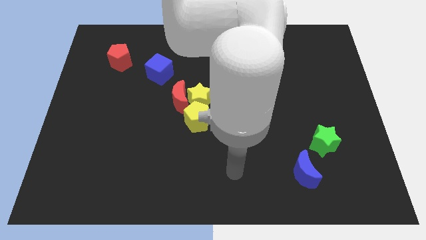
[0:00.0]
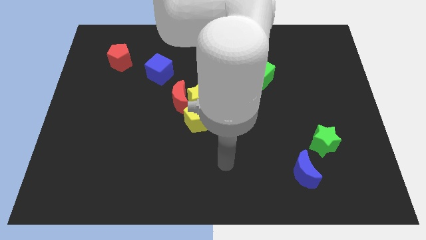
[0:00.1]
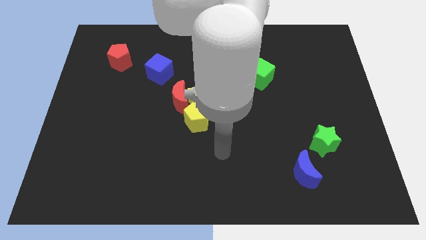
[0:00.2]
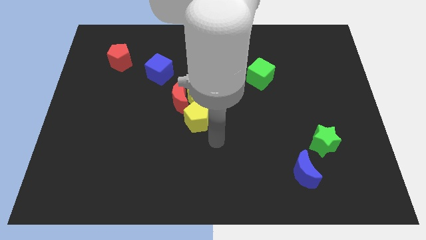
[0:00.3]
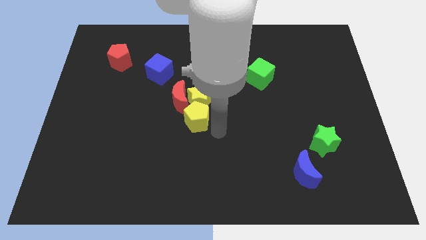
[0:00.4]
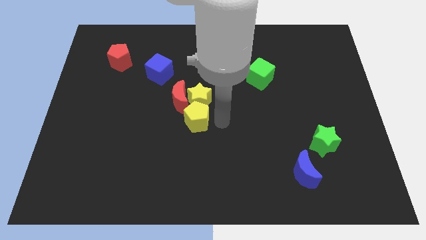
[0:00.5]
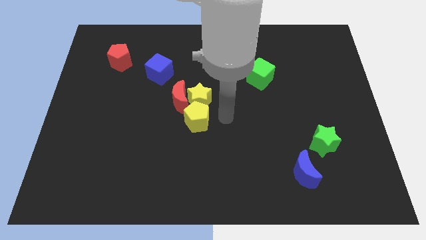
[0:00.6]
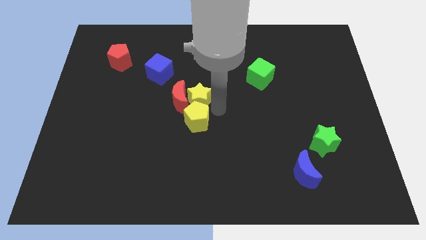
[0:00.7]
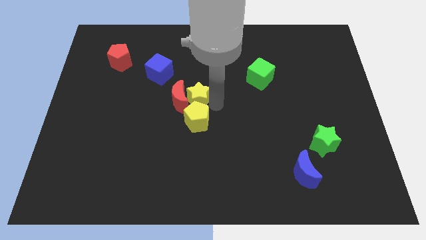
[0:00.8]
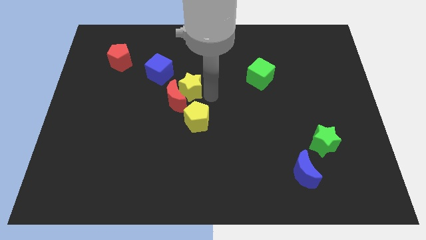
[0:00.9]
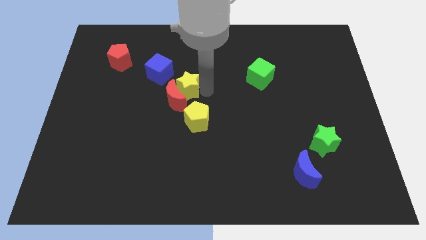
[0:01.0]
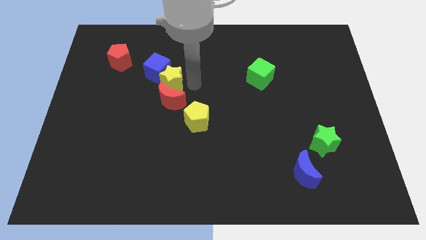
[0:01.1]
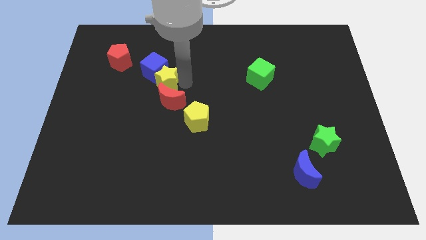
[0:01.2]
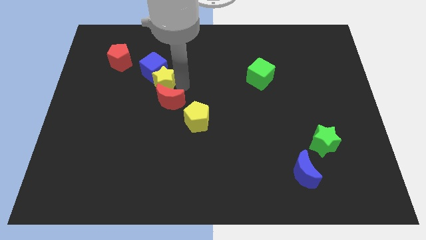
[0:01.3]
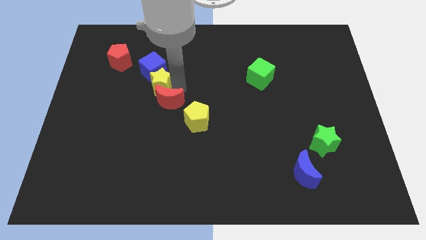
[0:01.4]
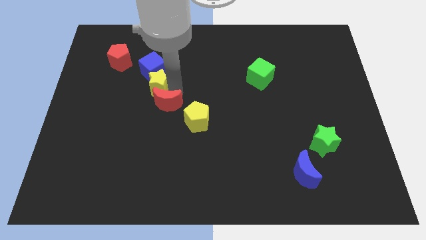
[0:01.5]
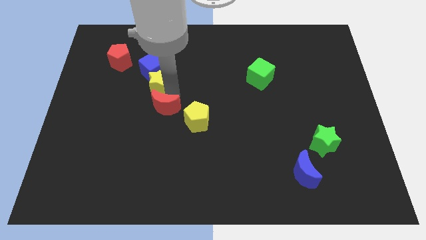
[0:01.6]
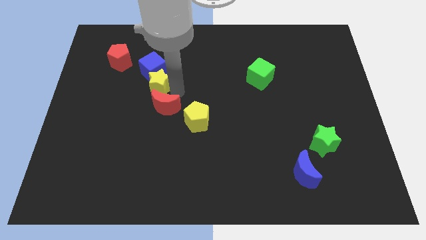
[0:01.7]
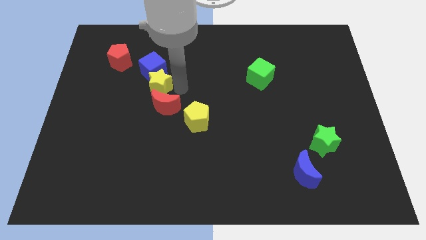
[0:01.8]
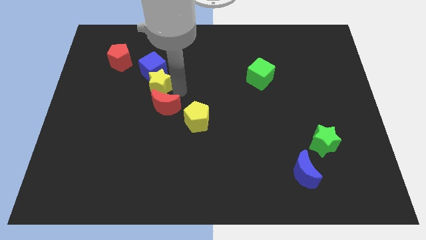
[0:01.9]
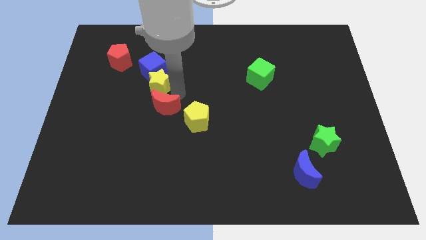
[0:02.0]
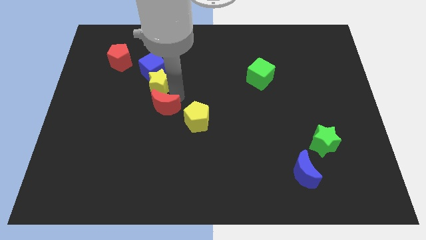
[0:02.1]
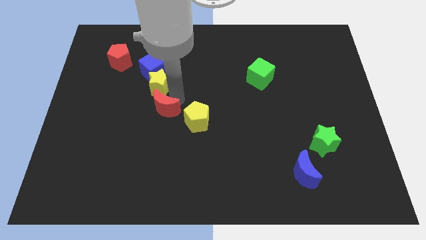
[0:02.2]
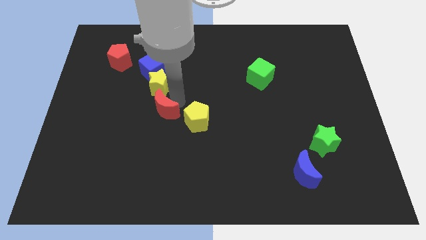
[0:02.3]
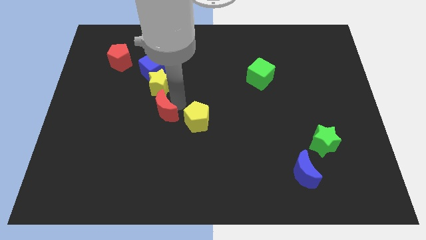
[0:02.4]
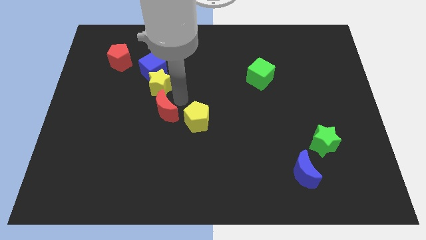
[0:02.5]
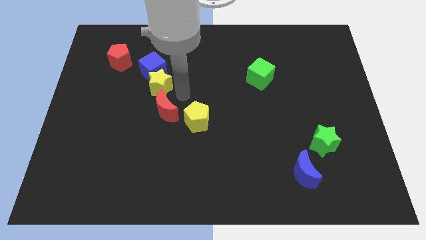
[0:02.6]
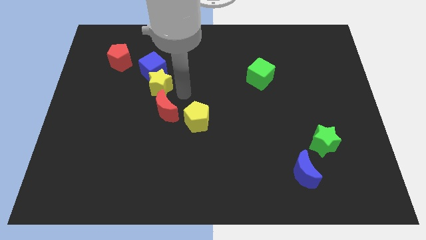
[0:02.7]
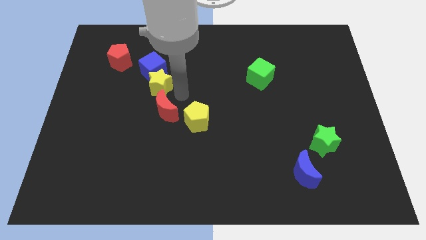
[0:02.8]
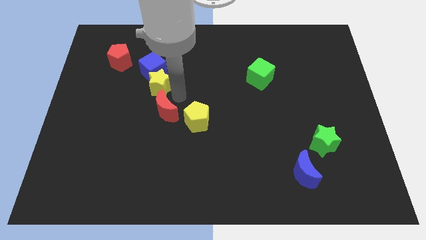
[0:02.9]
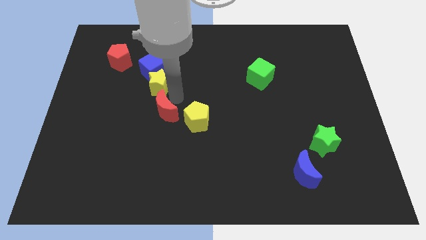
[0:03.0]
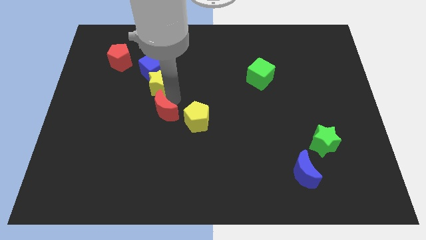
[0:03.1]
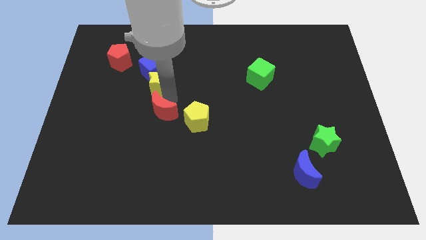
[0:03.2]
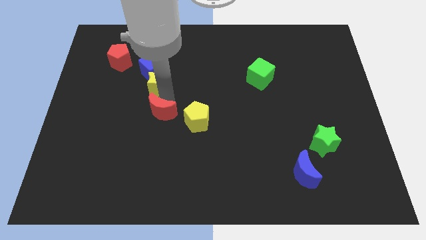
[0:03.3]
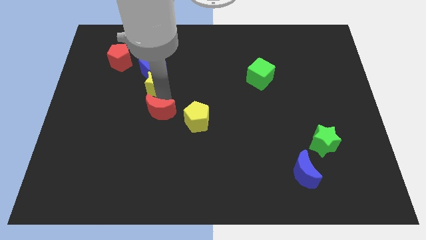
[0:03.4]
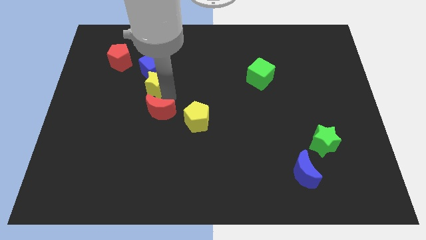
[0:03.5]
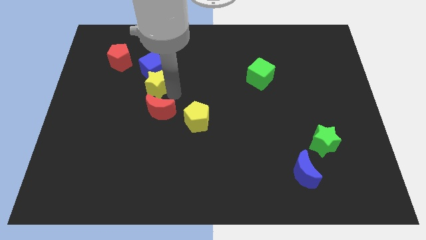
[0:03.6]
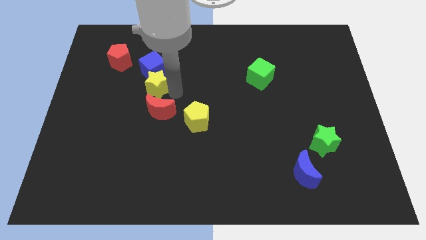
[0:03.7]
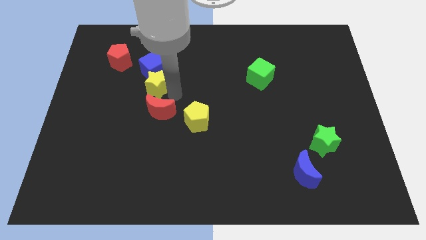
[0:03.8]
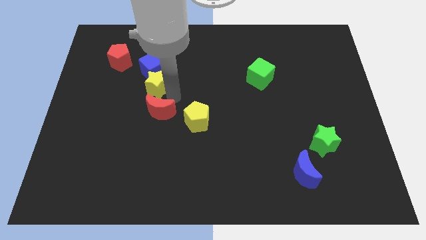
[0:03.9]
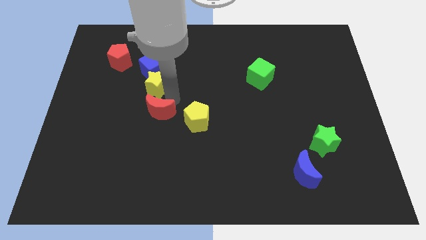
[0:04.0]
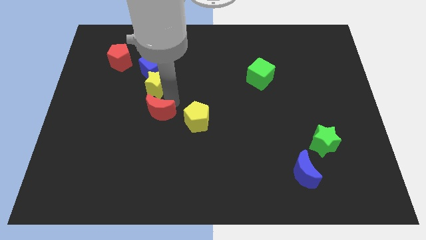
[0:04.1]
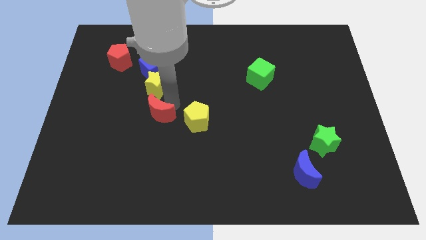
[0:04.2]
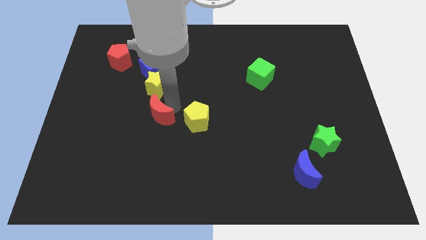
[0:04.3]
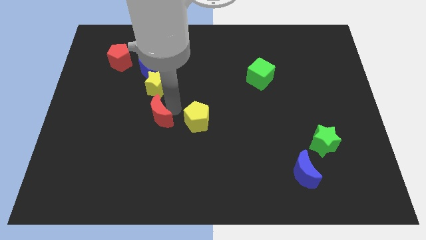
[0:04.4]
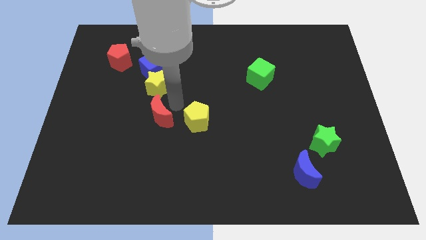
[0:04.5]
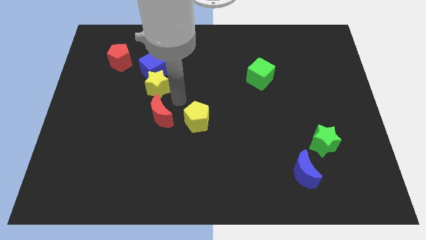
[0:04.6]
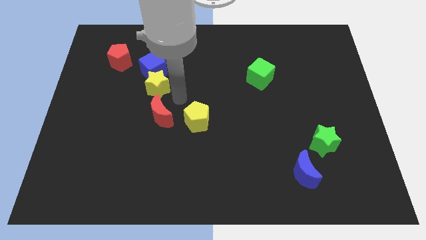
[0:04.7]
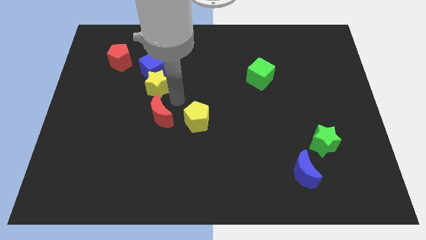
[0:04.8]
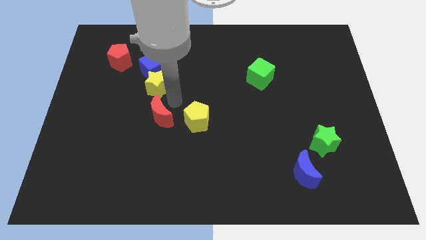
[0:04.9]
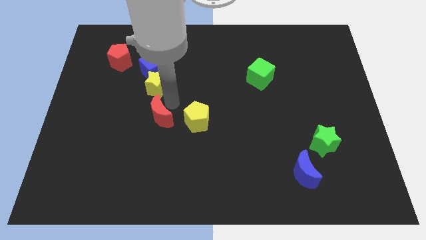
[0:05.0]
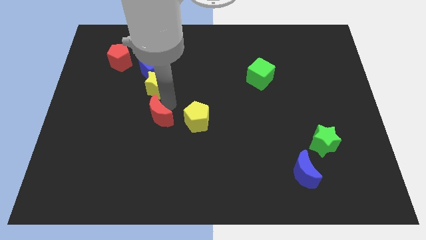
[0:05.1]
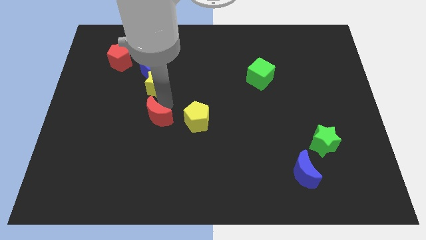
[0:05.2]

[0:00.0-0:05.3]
slide the red moon downwards and left slightly

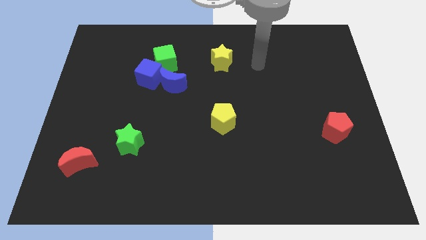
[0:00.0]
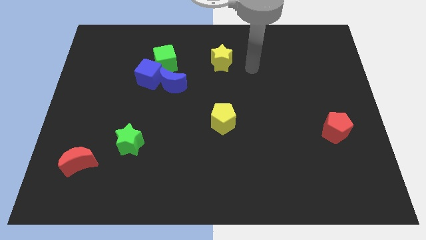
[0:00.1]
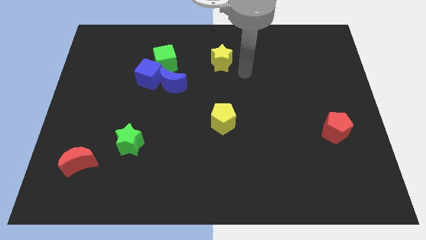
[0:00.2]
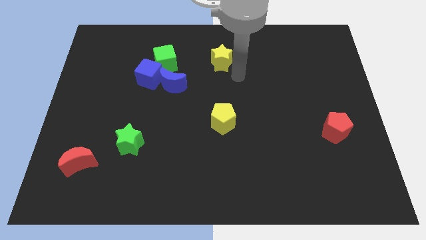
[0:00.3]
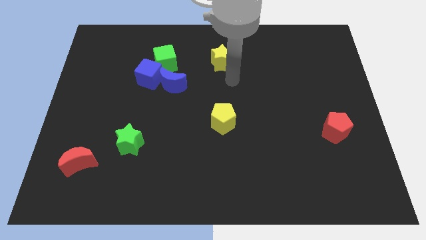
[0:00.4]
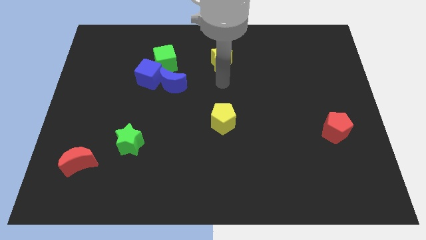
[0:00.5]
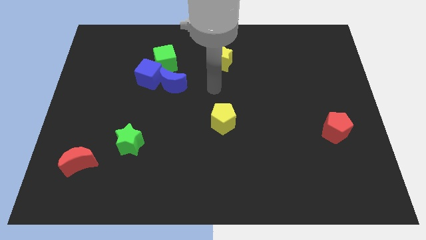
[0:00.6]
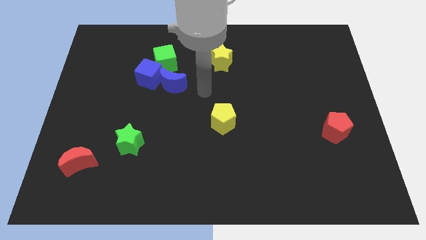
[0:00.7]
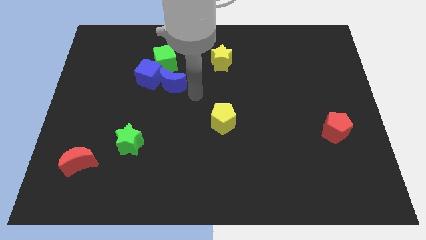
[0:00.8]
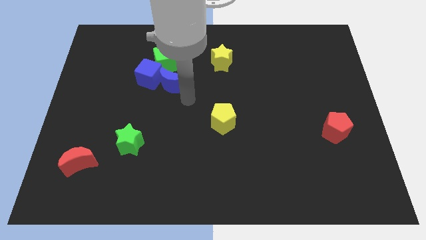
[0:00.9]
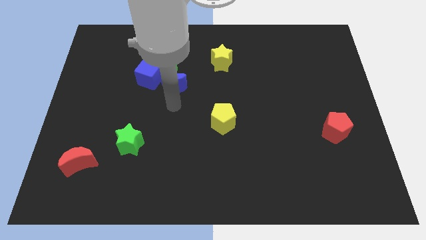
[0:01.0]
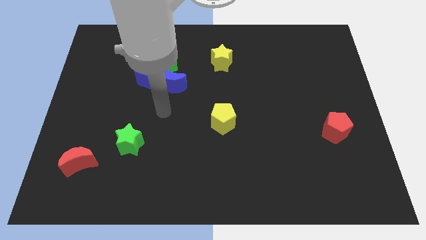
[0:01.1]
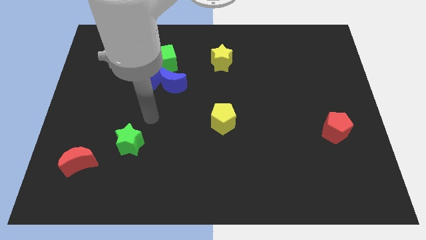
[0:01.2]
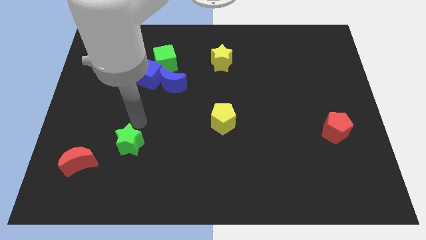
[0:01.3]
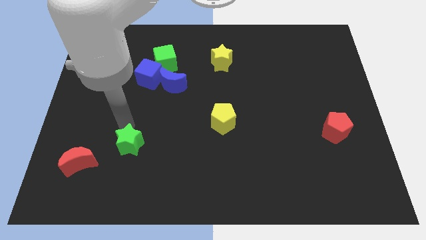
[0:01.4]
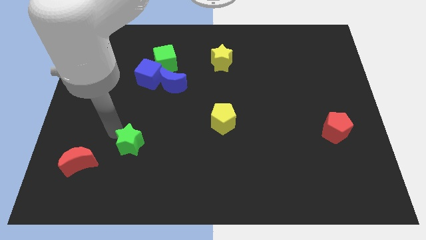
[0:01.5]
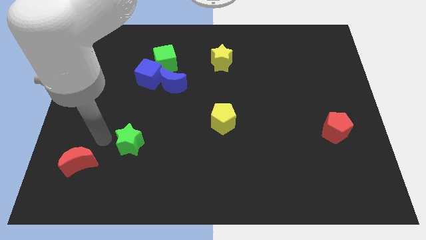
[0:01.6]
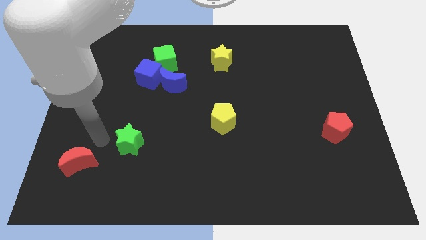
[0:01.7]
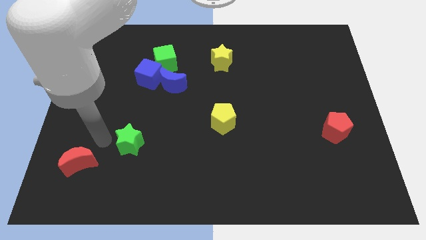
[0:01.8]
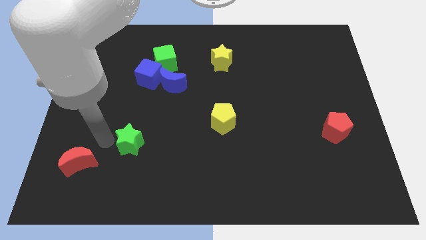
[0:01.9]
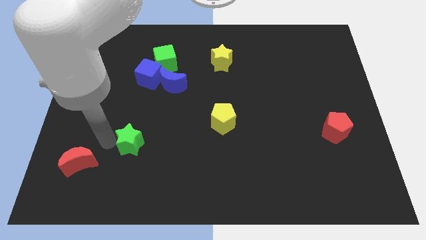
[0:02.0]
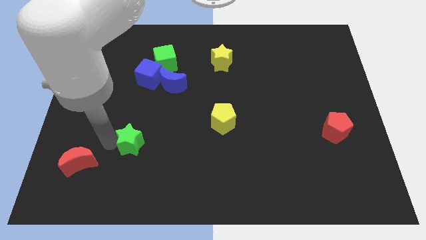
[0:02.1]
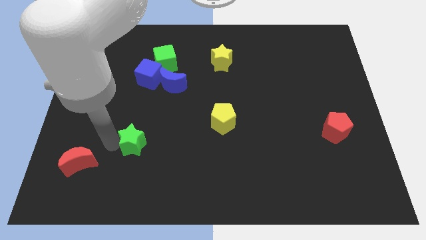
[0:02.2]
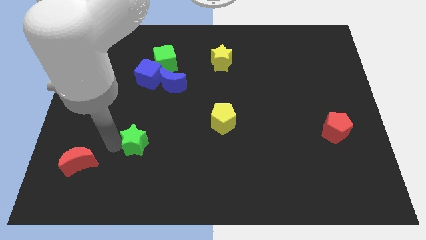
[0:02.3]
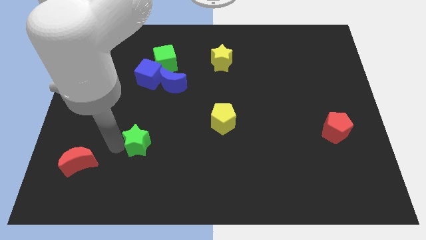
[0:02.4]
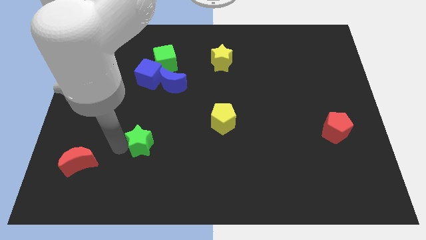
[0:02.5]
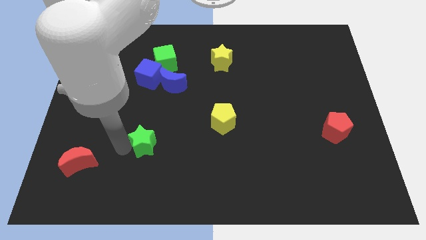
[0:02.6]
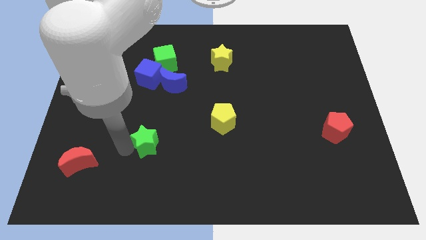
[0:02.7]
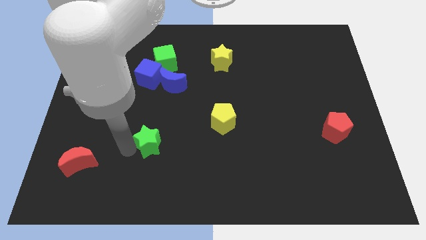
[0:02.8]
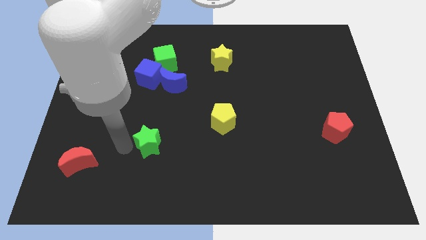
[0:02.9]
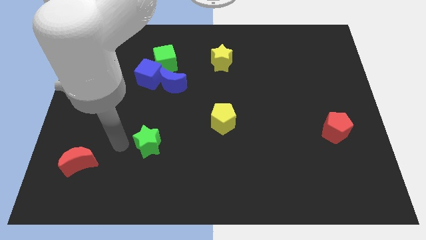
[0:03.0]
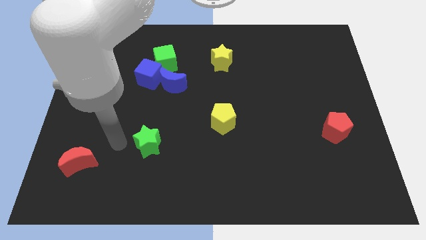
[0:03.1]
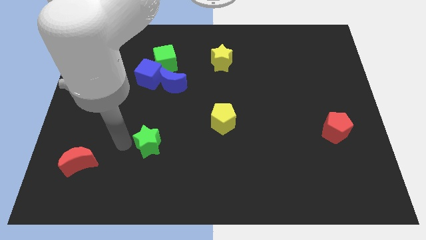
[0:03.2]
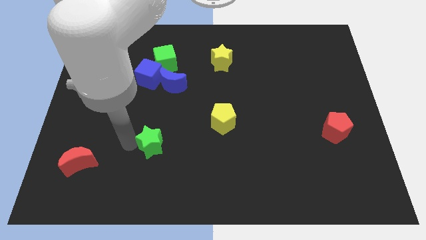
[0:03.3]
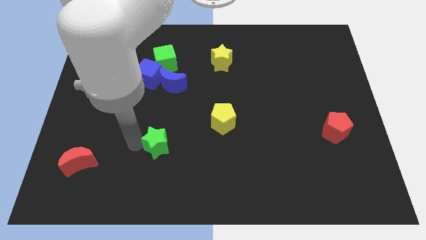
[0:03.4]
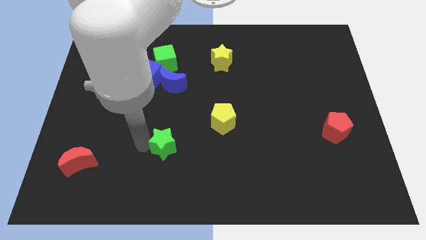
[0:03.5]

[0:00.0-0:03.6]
slightly push the green star right
